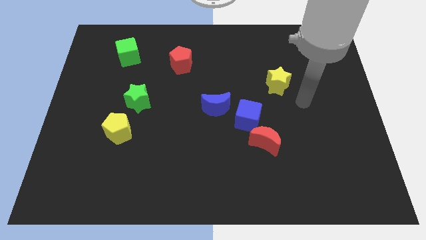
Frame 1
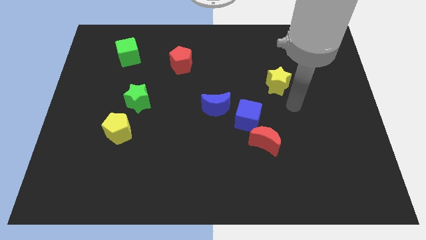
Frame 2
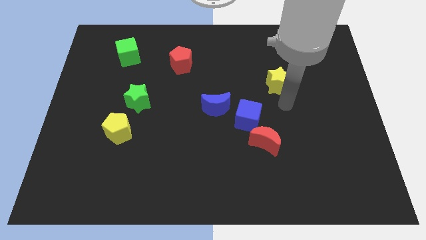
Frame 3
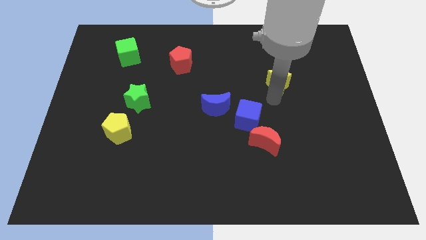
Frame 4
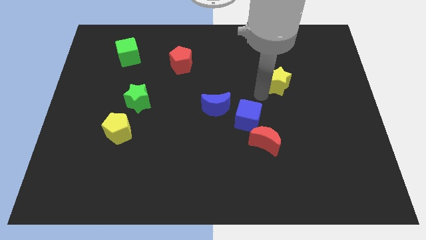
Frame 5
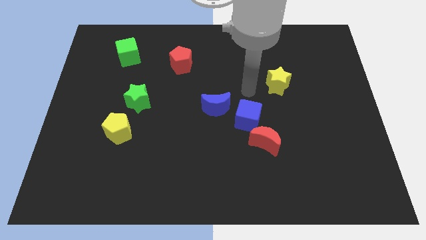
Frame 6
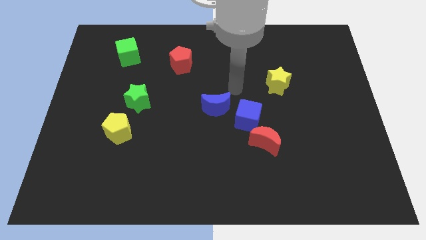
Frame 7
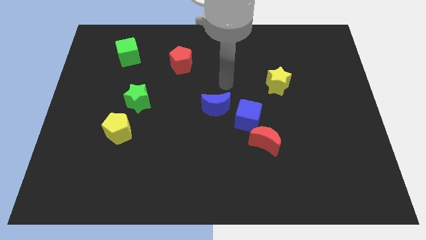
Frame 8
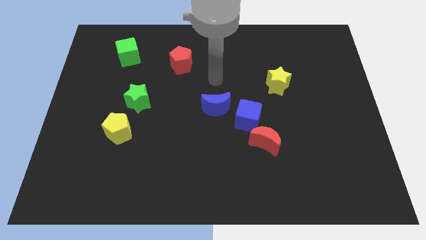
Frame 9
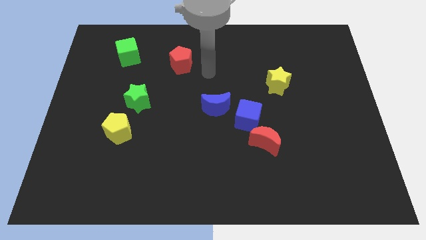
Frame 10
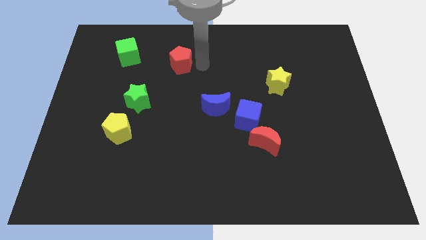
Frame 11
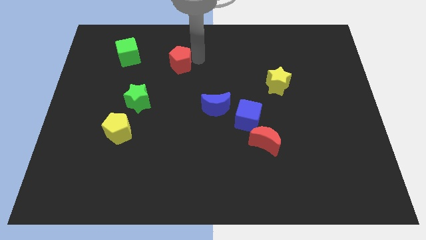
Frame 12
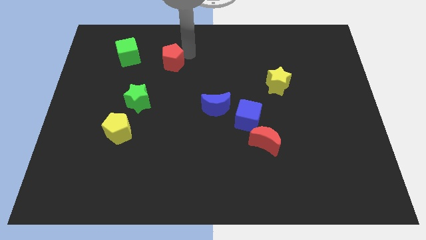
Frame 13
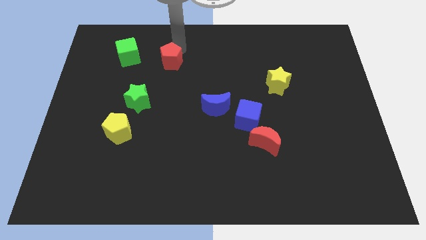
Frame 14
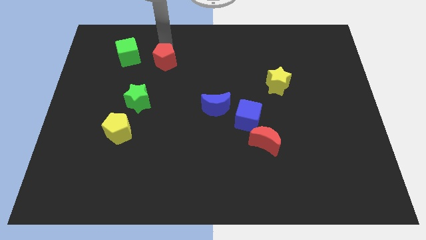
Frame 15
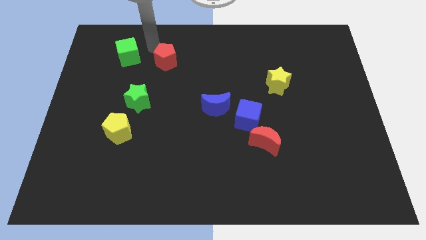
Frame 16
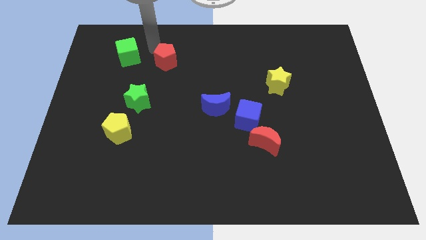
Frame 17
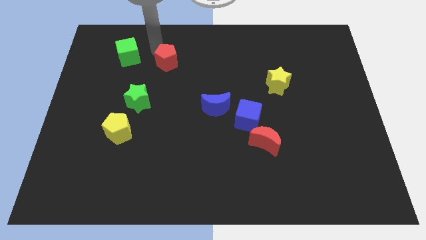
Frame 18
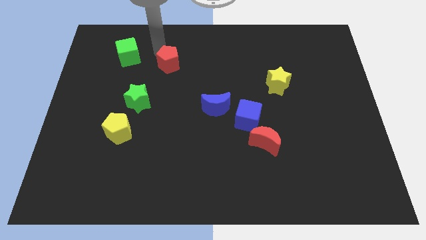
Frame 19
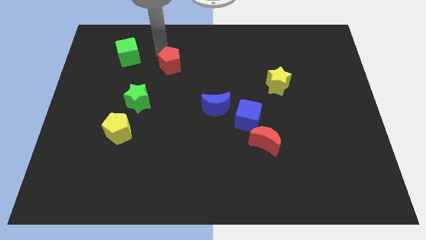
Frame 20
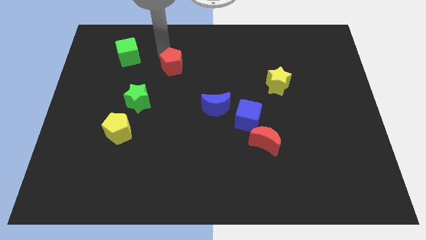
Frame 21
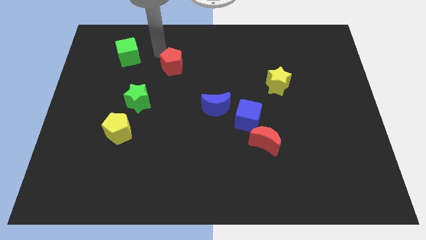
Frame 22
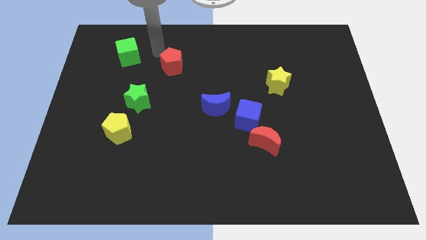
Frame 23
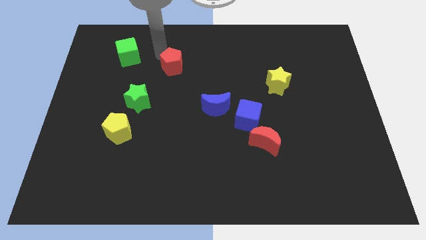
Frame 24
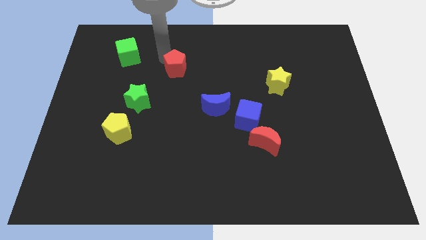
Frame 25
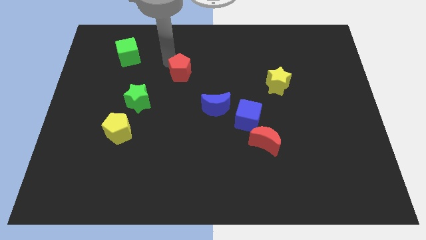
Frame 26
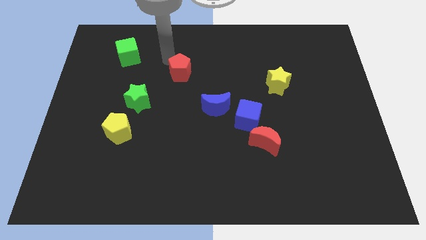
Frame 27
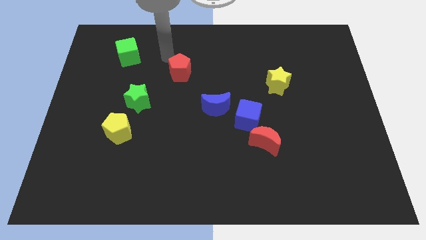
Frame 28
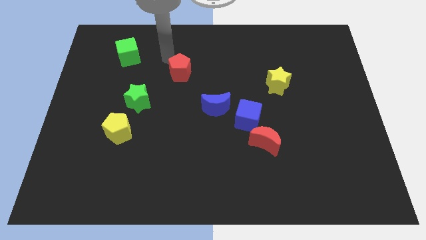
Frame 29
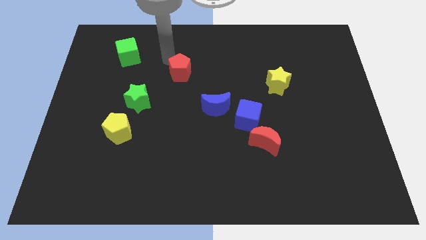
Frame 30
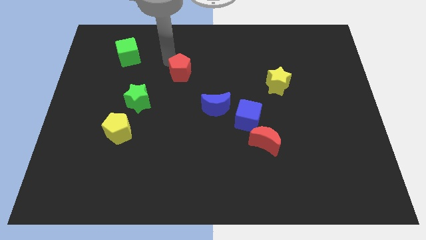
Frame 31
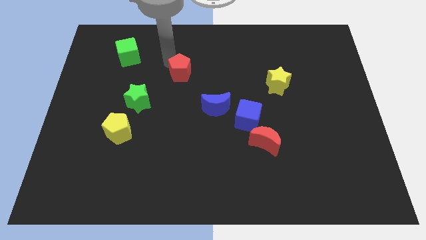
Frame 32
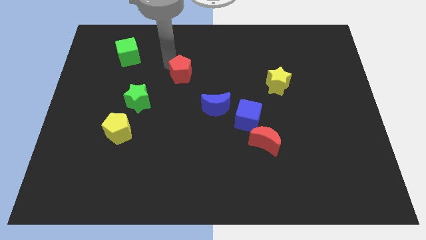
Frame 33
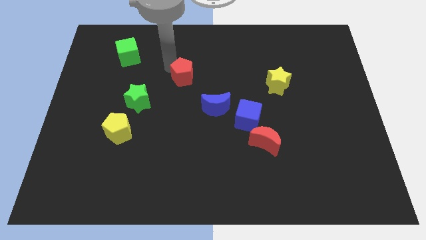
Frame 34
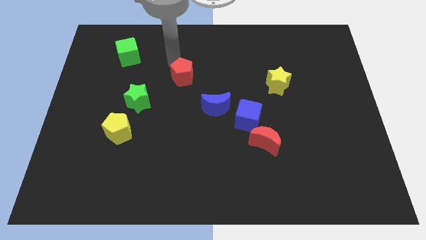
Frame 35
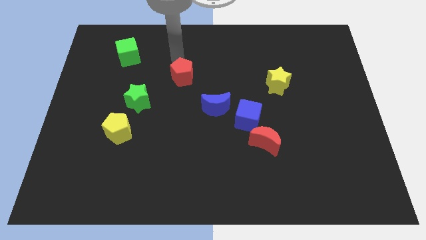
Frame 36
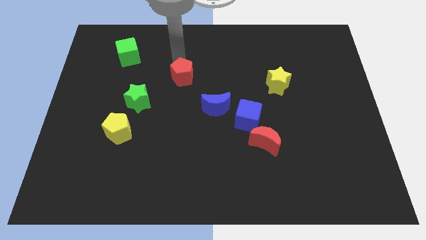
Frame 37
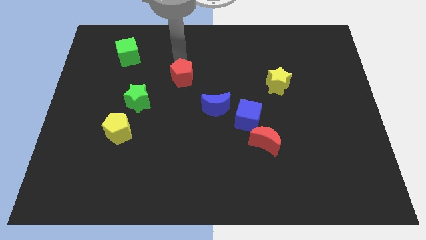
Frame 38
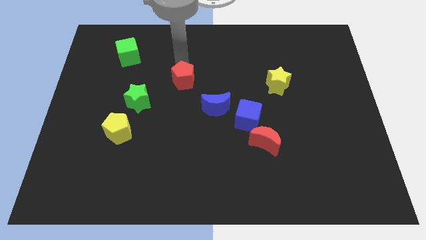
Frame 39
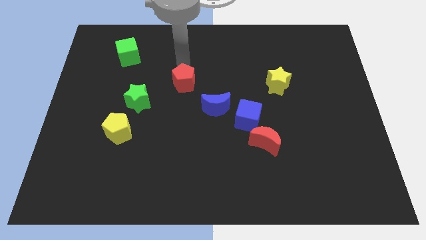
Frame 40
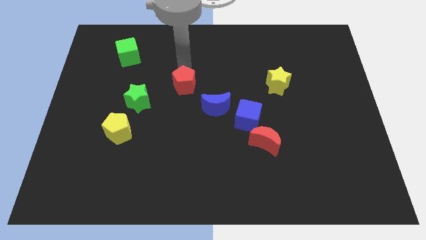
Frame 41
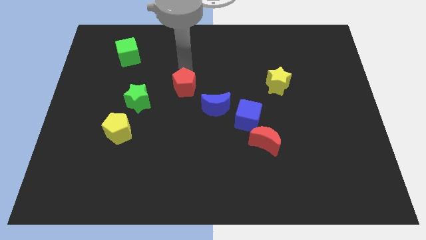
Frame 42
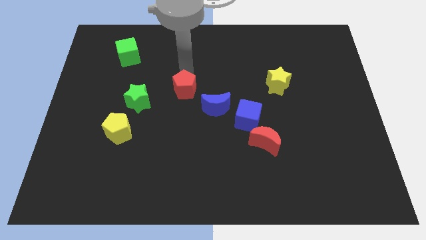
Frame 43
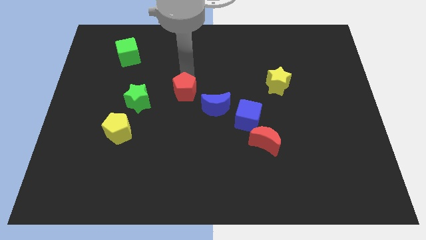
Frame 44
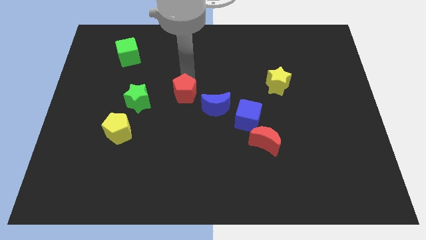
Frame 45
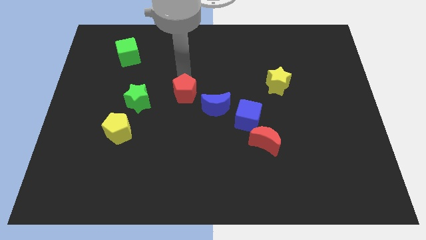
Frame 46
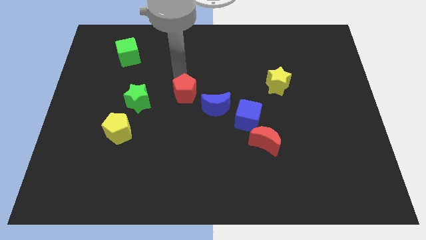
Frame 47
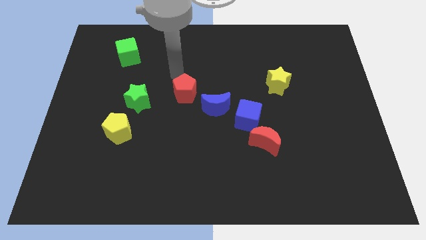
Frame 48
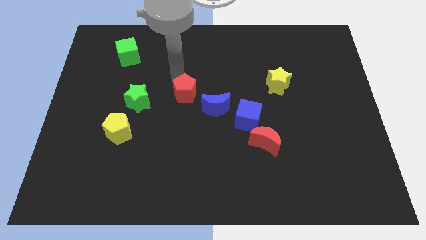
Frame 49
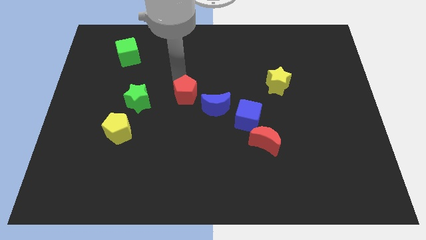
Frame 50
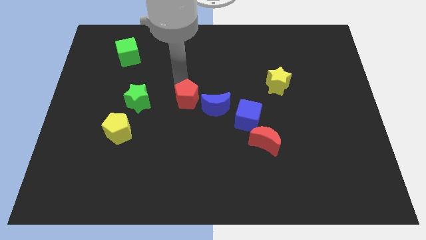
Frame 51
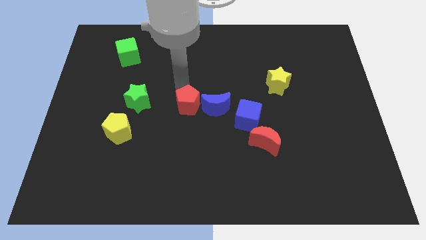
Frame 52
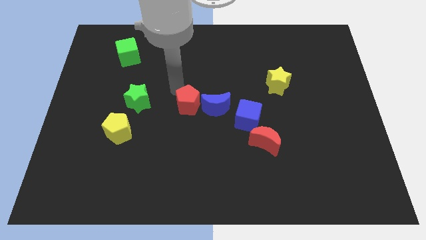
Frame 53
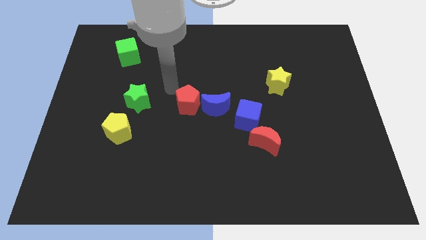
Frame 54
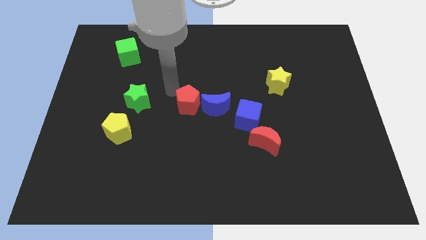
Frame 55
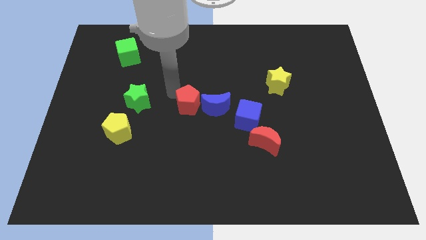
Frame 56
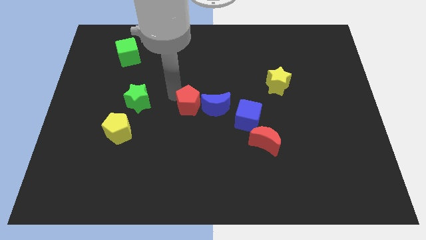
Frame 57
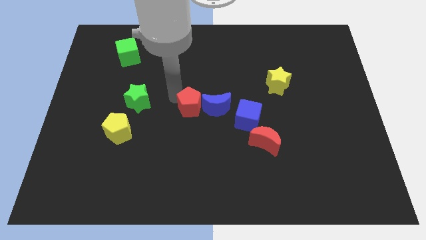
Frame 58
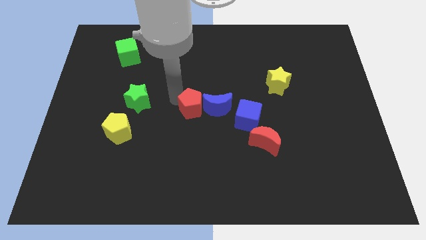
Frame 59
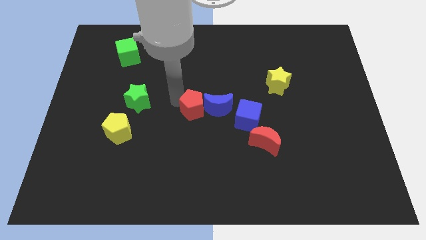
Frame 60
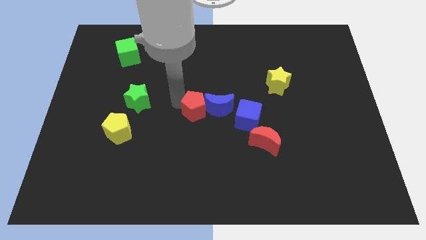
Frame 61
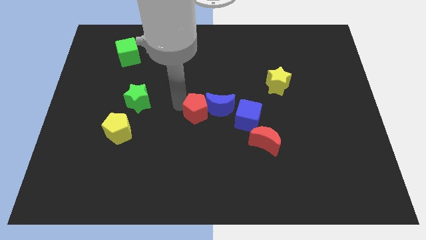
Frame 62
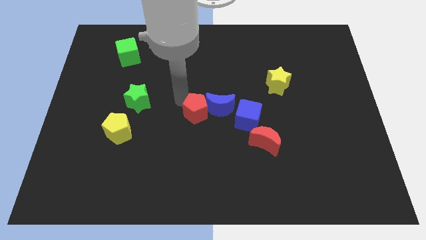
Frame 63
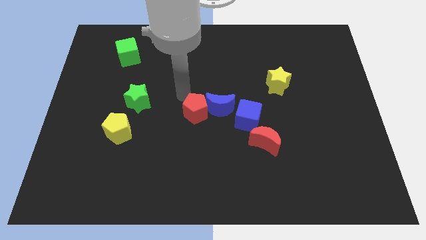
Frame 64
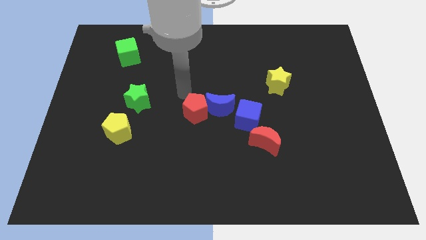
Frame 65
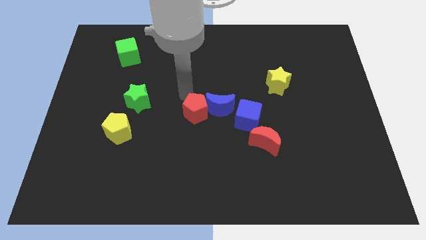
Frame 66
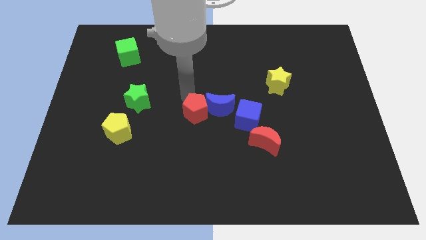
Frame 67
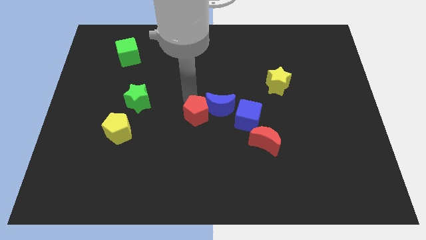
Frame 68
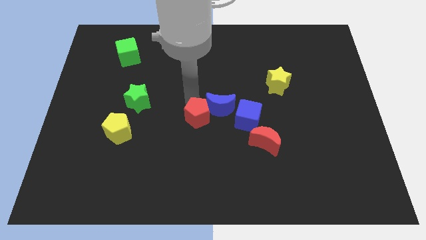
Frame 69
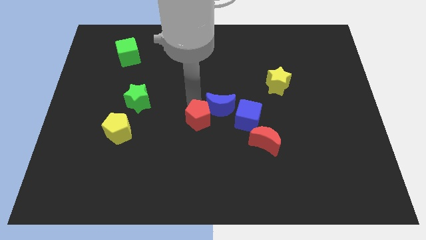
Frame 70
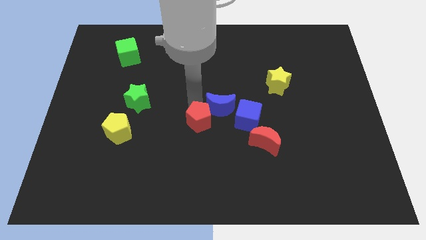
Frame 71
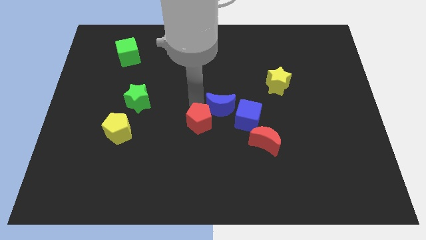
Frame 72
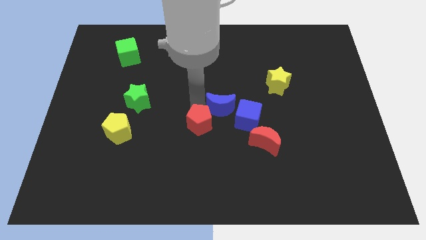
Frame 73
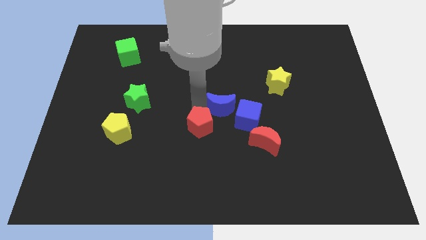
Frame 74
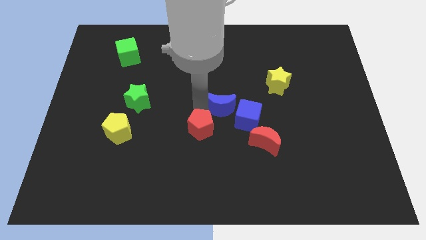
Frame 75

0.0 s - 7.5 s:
put the red pentagon just left of the red moon
